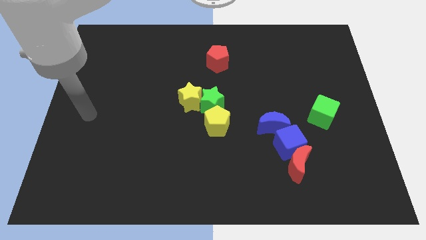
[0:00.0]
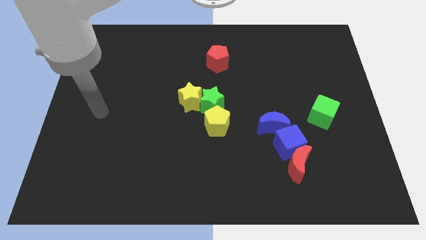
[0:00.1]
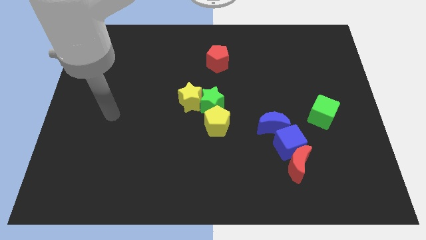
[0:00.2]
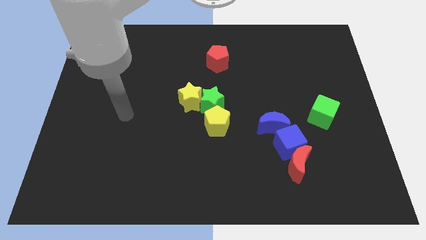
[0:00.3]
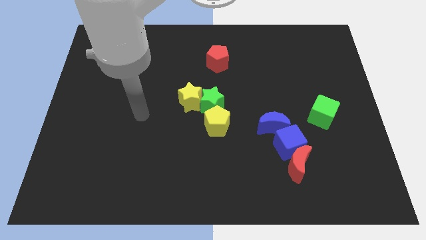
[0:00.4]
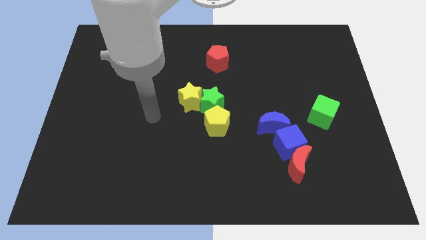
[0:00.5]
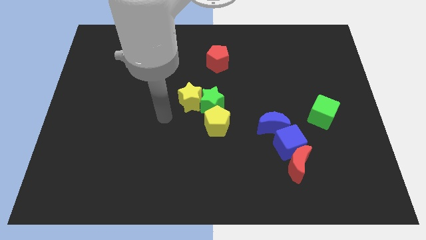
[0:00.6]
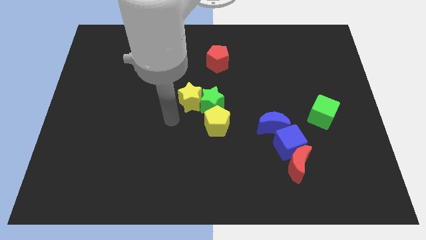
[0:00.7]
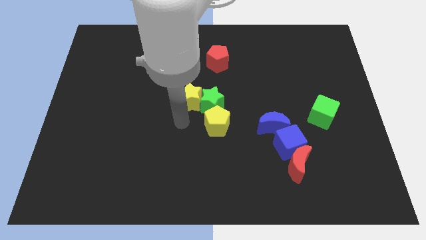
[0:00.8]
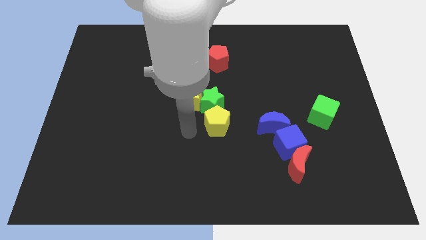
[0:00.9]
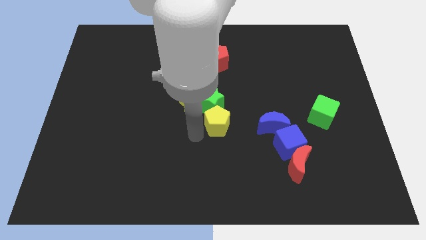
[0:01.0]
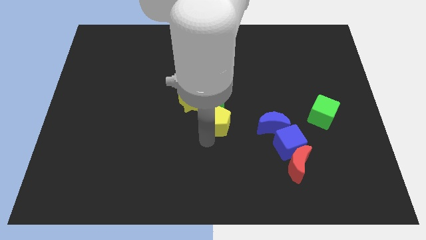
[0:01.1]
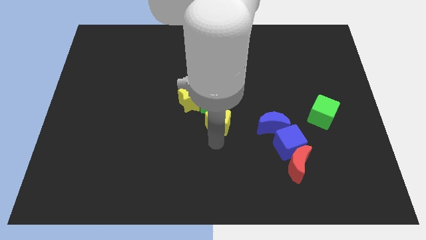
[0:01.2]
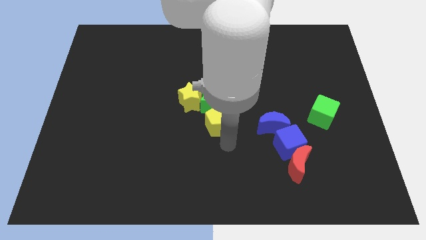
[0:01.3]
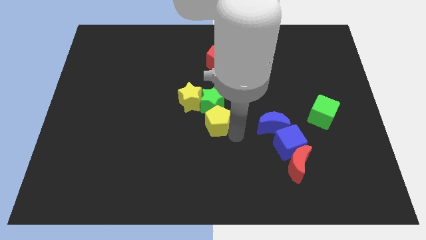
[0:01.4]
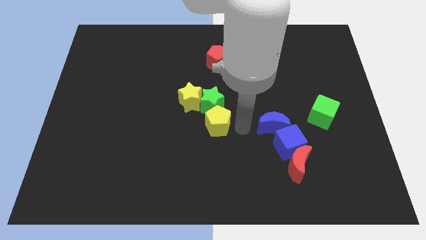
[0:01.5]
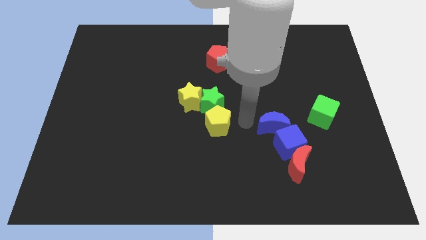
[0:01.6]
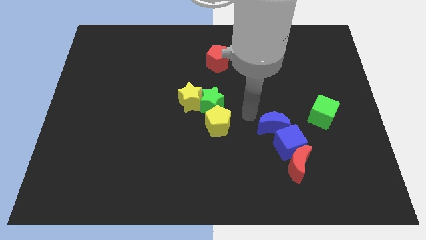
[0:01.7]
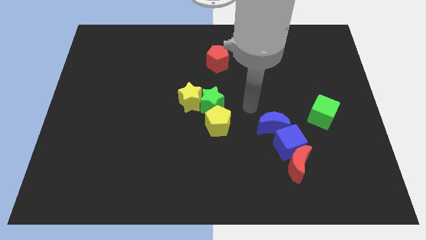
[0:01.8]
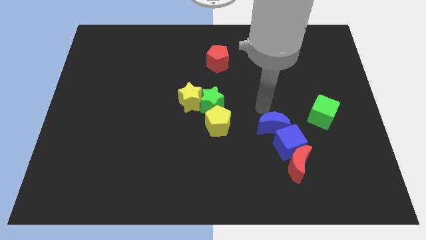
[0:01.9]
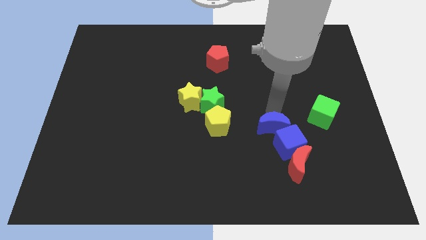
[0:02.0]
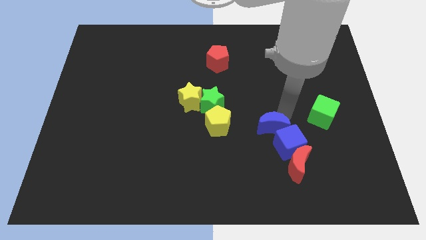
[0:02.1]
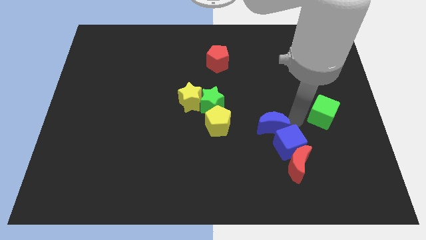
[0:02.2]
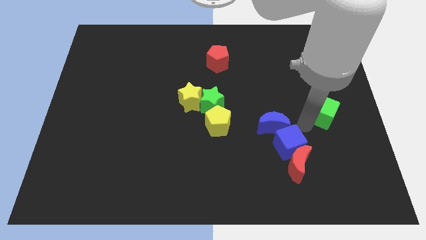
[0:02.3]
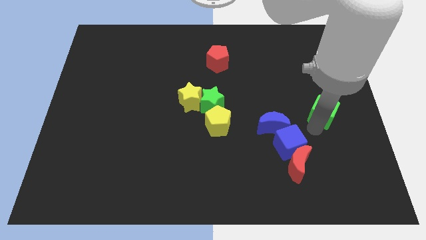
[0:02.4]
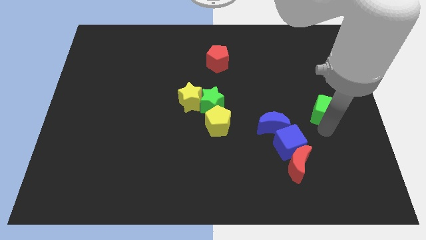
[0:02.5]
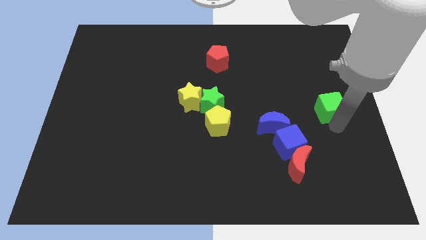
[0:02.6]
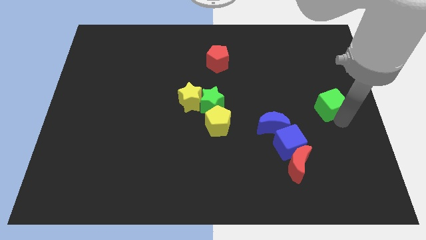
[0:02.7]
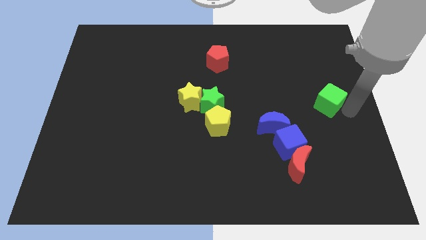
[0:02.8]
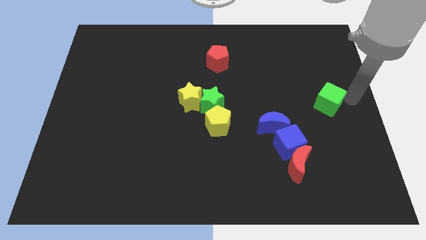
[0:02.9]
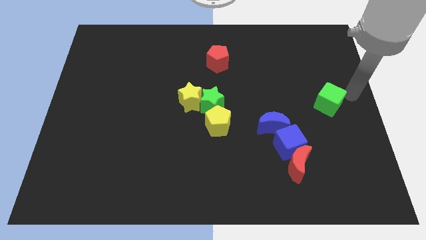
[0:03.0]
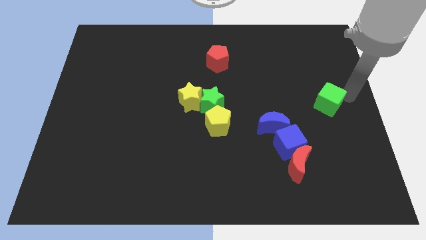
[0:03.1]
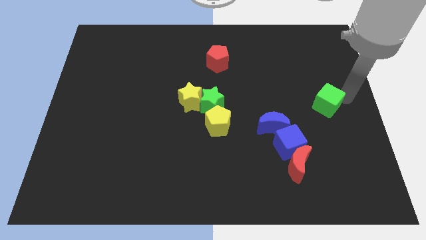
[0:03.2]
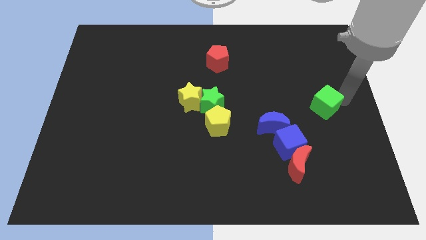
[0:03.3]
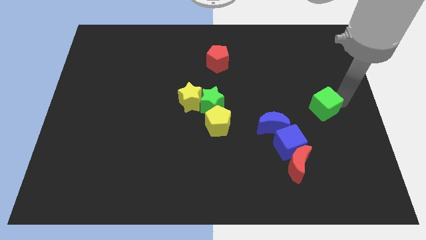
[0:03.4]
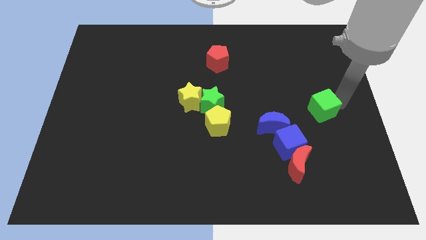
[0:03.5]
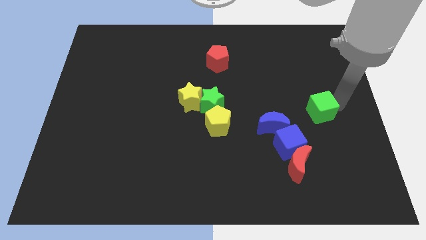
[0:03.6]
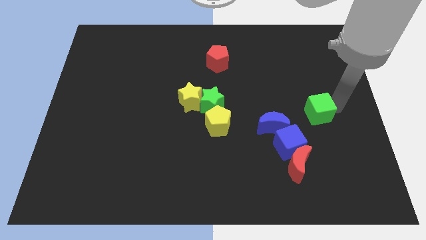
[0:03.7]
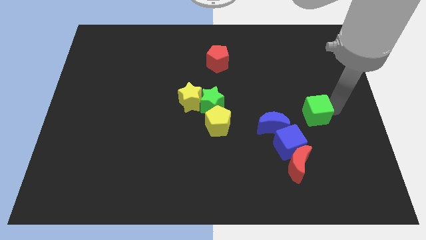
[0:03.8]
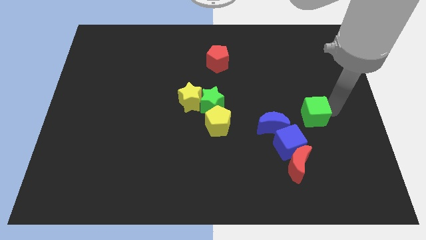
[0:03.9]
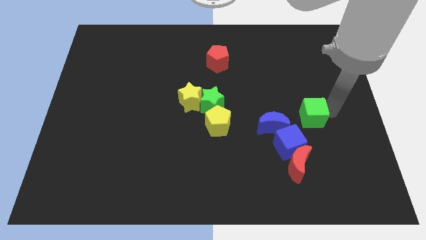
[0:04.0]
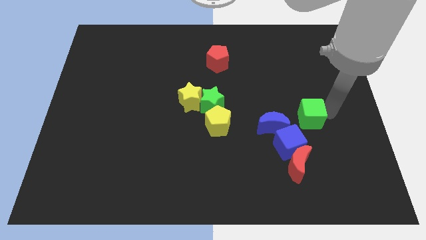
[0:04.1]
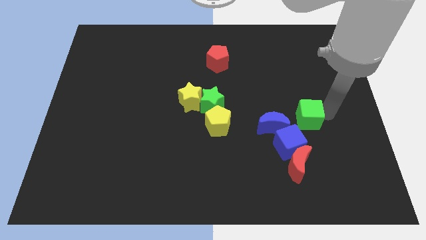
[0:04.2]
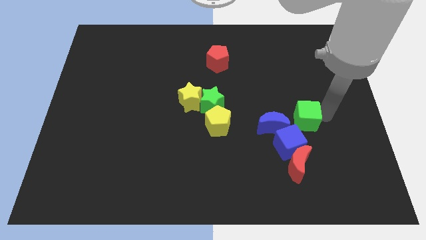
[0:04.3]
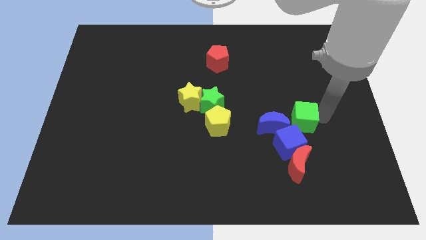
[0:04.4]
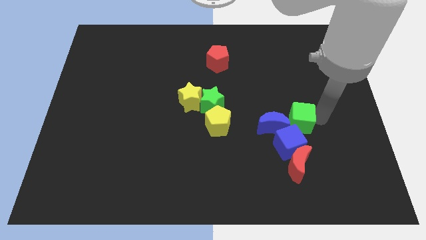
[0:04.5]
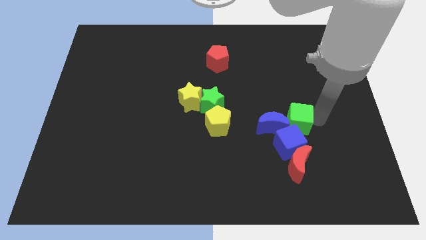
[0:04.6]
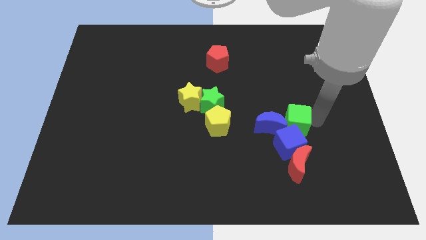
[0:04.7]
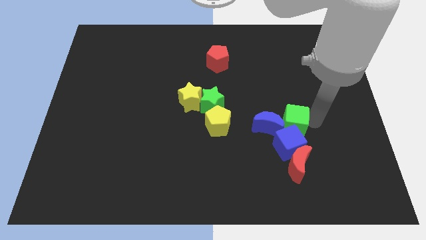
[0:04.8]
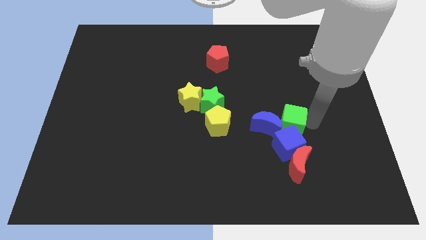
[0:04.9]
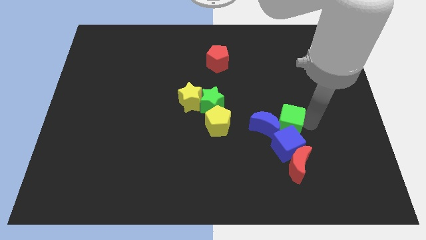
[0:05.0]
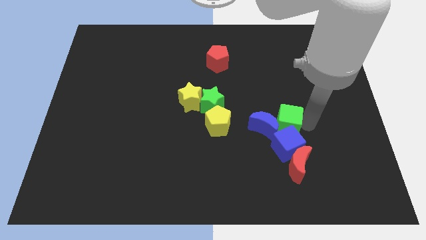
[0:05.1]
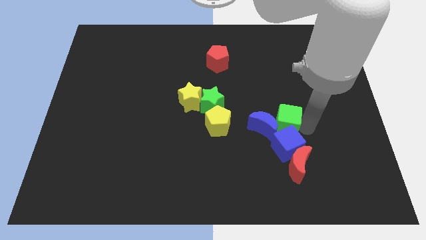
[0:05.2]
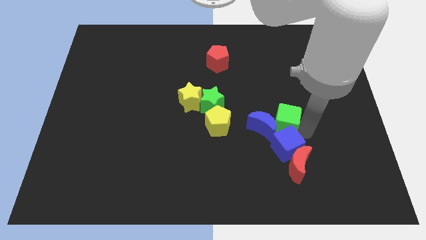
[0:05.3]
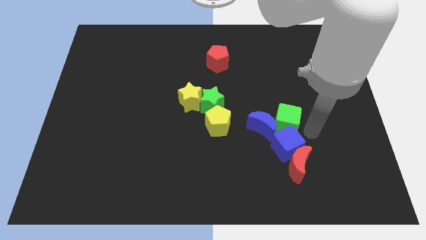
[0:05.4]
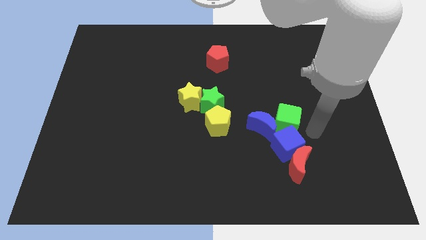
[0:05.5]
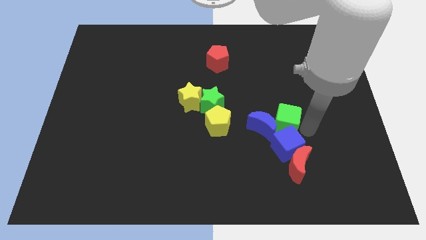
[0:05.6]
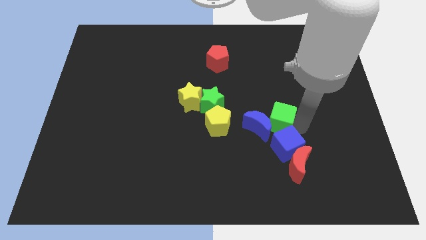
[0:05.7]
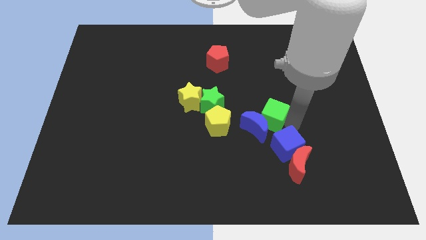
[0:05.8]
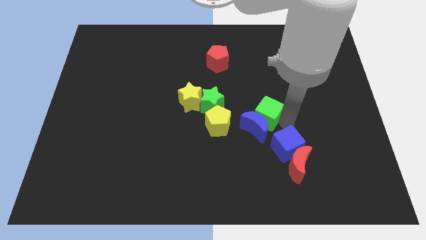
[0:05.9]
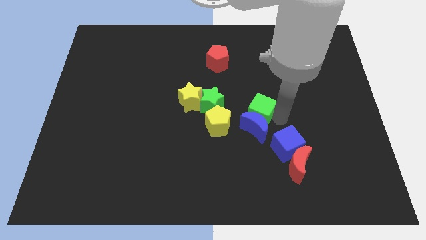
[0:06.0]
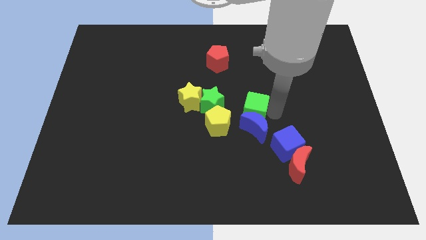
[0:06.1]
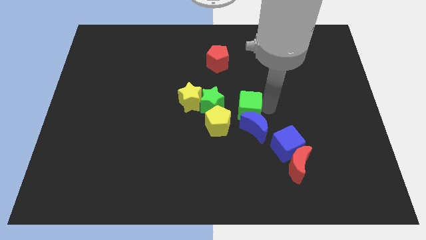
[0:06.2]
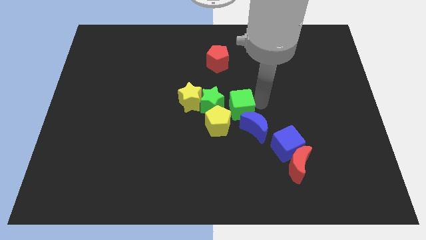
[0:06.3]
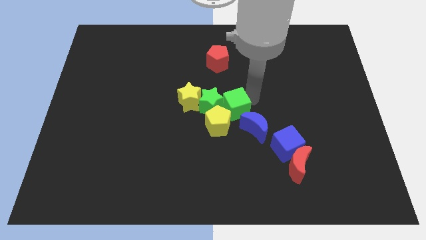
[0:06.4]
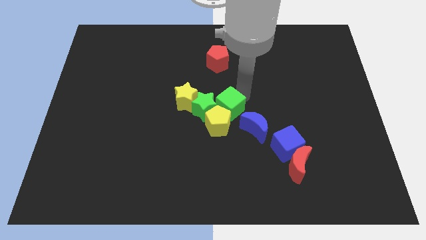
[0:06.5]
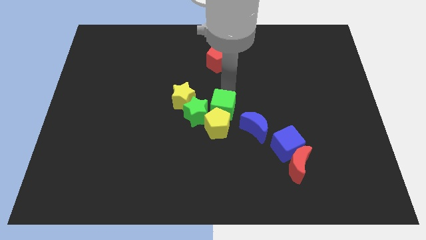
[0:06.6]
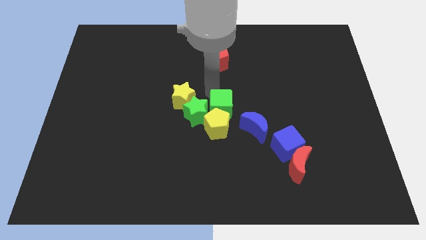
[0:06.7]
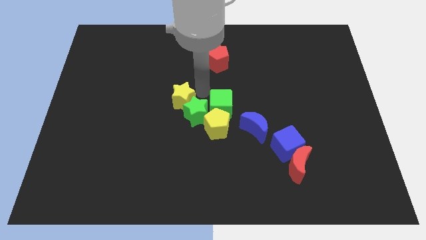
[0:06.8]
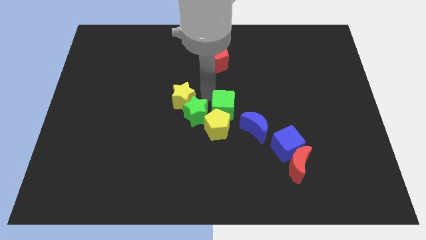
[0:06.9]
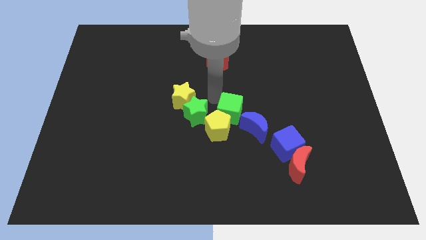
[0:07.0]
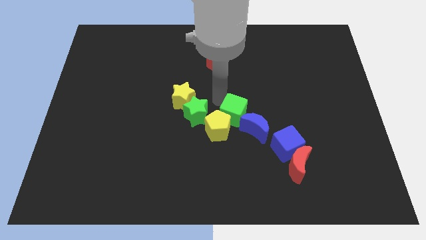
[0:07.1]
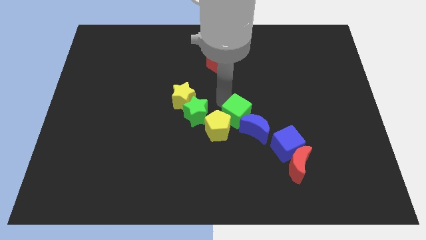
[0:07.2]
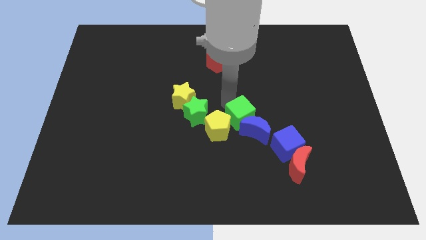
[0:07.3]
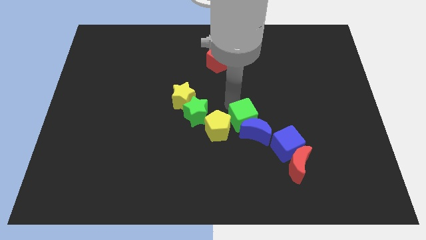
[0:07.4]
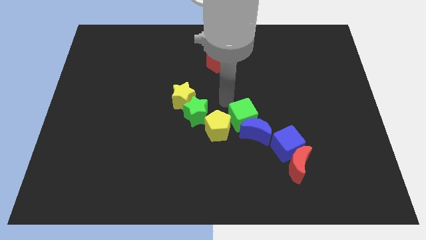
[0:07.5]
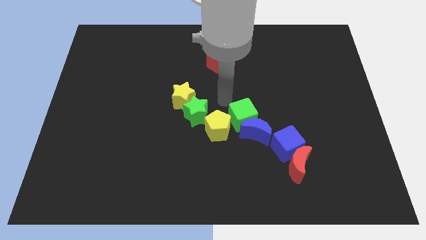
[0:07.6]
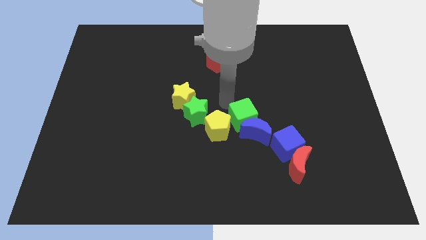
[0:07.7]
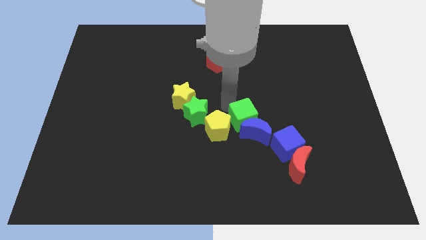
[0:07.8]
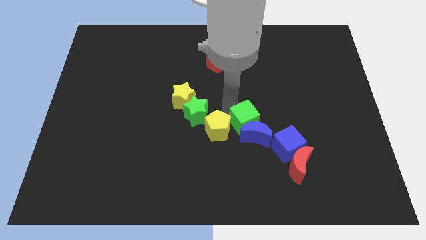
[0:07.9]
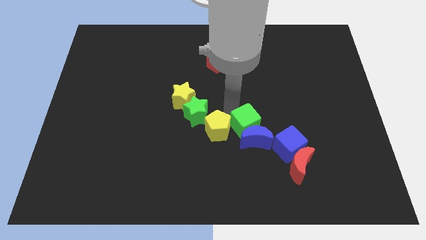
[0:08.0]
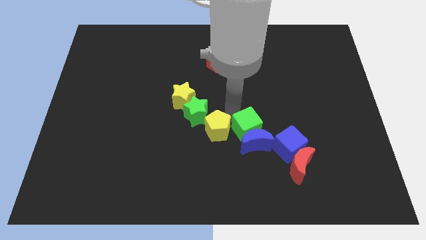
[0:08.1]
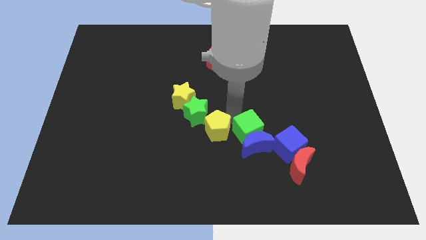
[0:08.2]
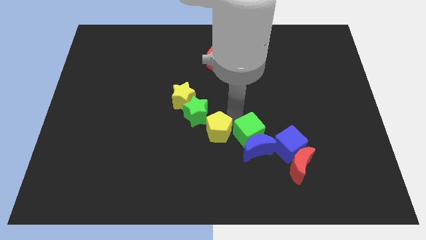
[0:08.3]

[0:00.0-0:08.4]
move the green cube to the top left side of the red moon
